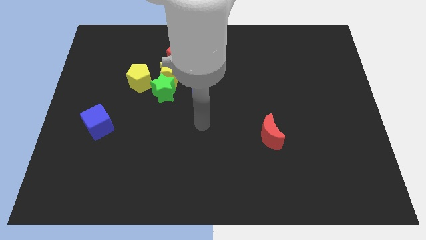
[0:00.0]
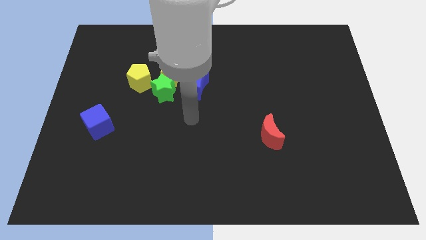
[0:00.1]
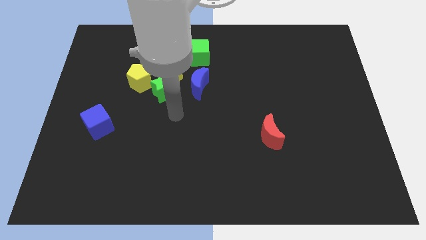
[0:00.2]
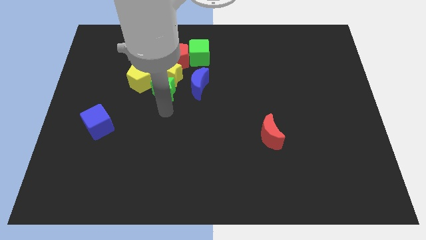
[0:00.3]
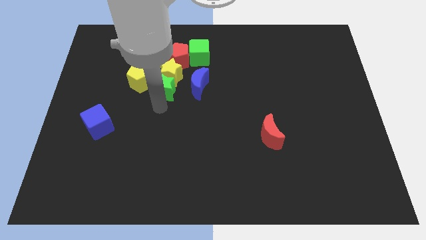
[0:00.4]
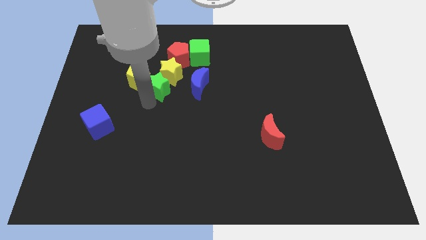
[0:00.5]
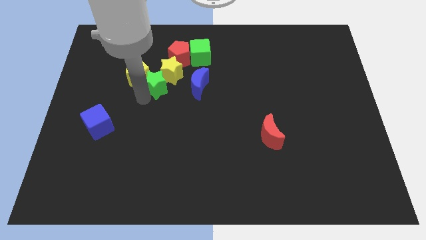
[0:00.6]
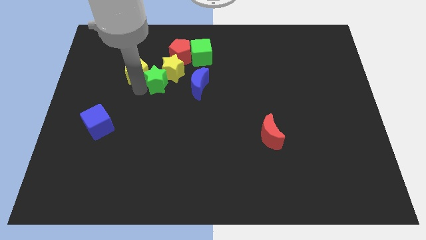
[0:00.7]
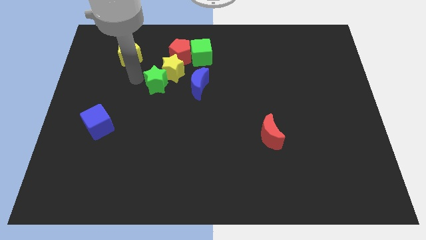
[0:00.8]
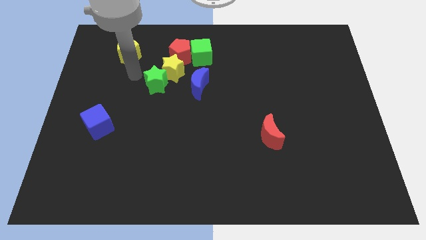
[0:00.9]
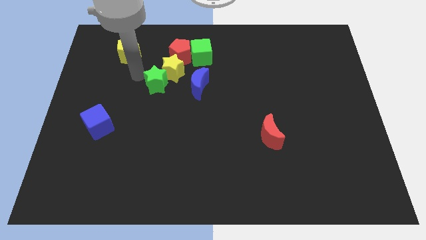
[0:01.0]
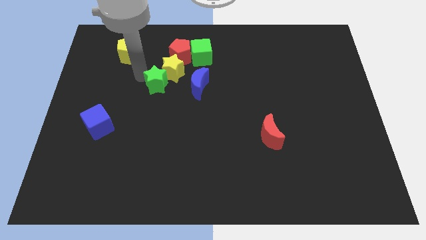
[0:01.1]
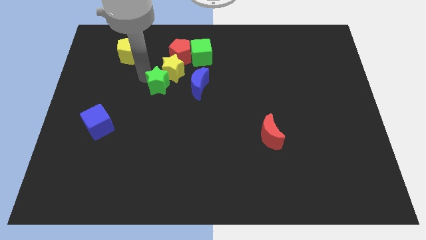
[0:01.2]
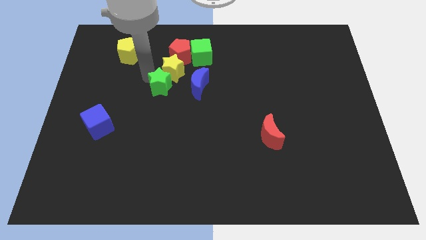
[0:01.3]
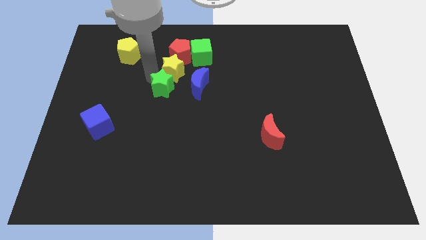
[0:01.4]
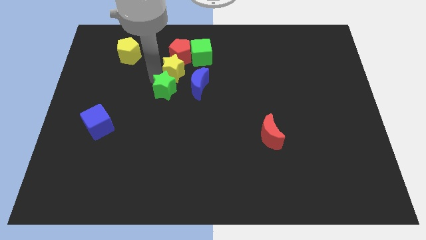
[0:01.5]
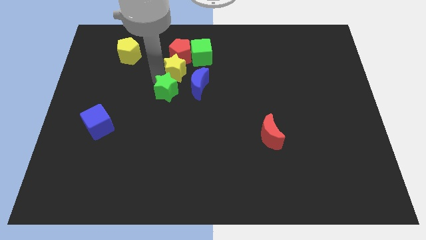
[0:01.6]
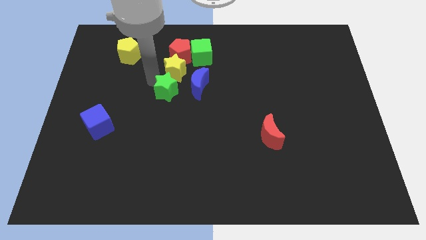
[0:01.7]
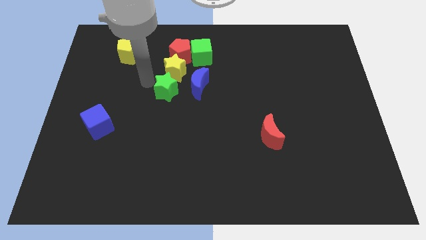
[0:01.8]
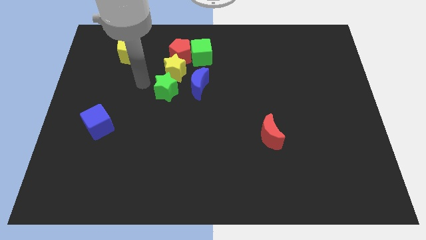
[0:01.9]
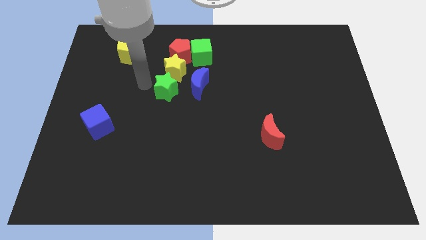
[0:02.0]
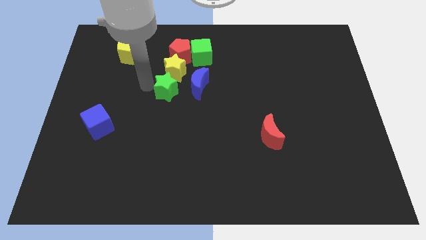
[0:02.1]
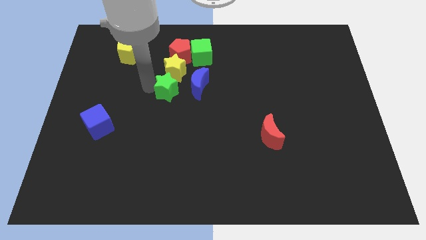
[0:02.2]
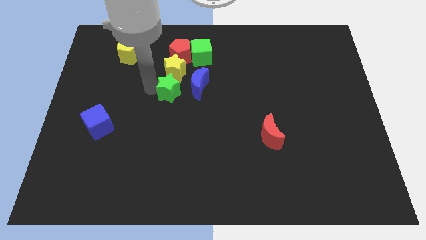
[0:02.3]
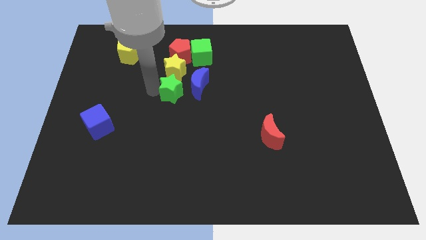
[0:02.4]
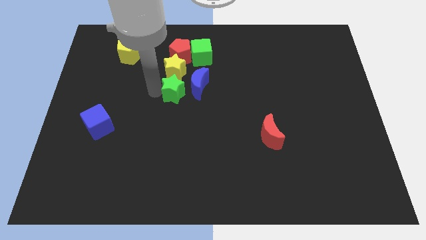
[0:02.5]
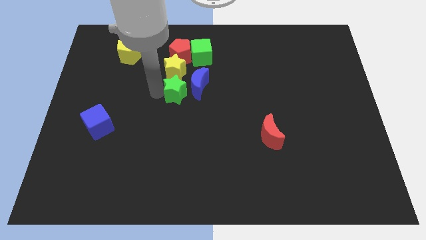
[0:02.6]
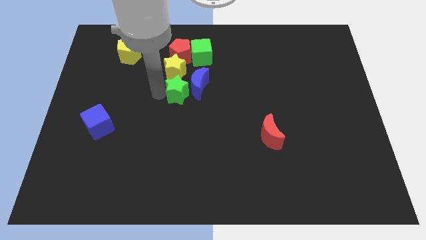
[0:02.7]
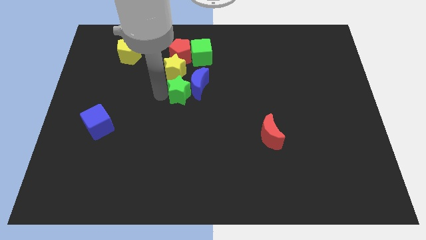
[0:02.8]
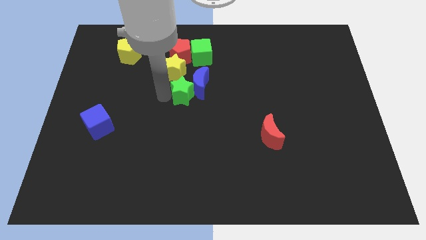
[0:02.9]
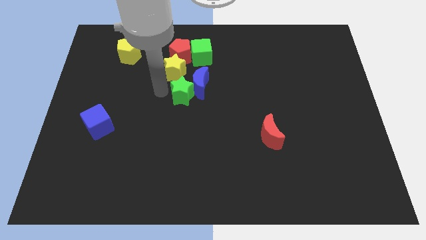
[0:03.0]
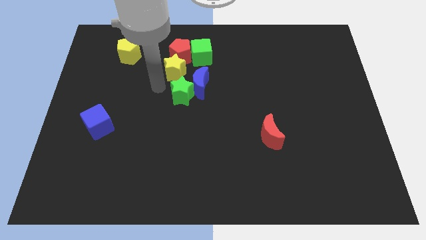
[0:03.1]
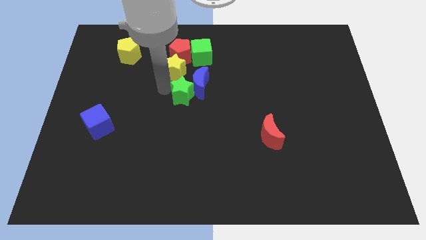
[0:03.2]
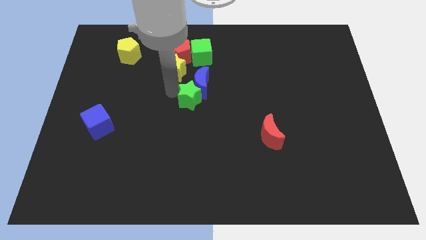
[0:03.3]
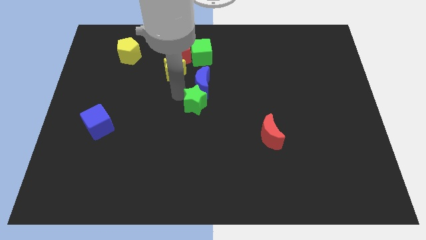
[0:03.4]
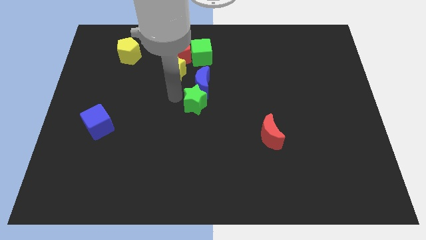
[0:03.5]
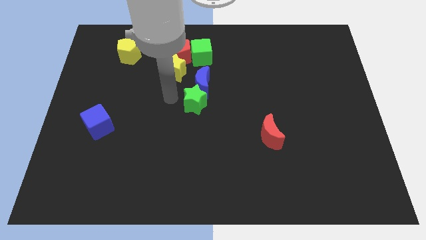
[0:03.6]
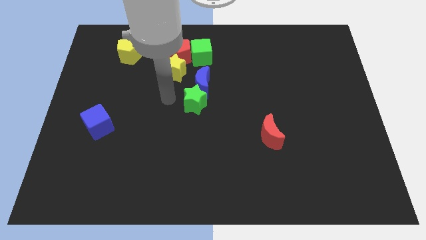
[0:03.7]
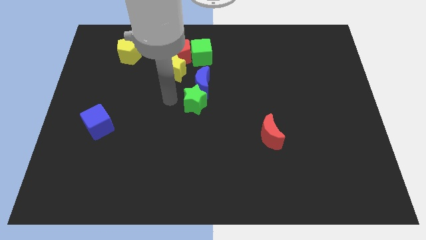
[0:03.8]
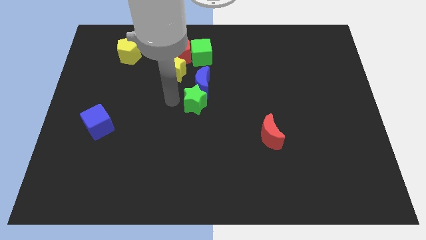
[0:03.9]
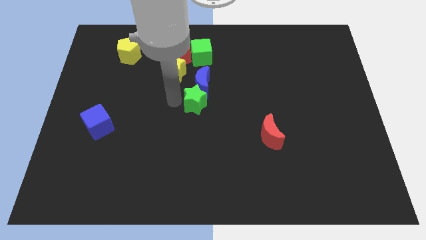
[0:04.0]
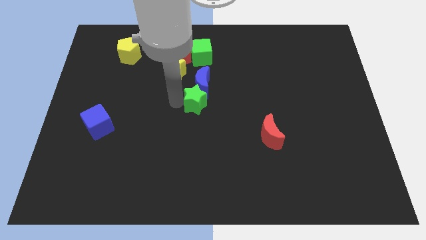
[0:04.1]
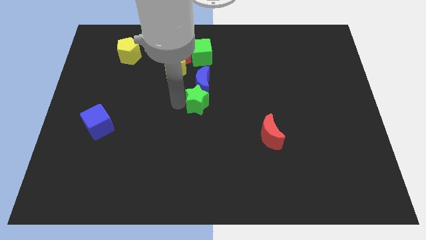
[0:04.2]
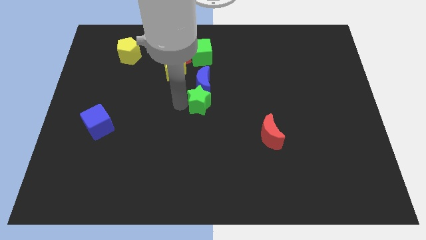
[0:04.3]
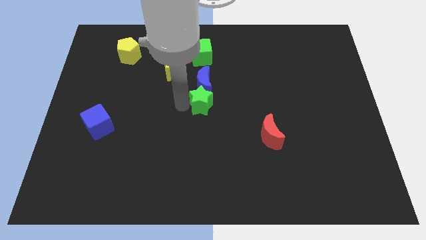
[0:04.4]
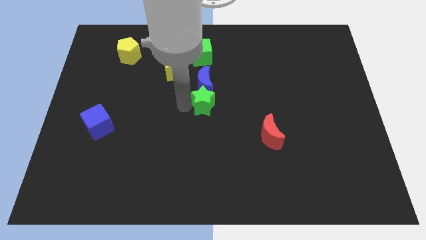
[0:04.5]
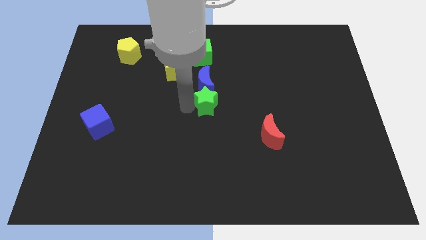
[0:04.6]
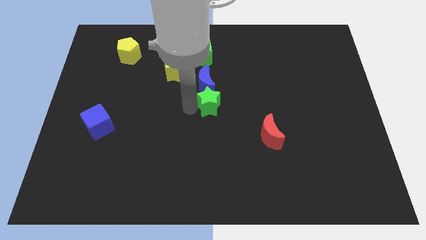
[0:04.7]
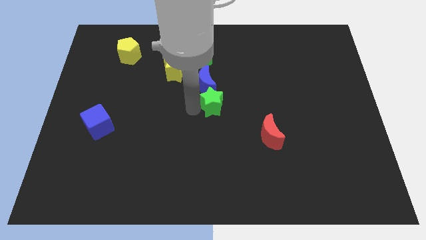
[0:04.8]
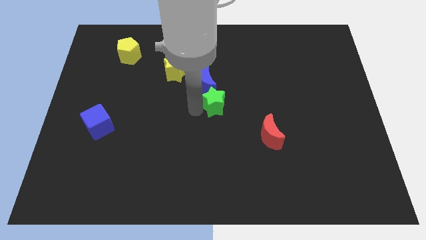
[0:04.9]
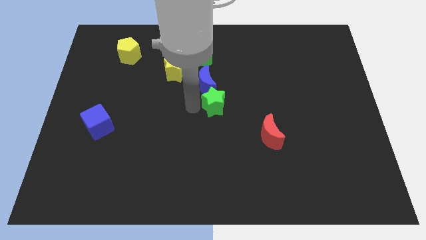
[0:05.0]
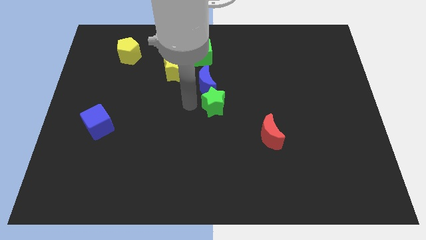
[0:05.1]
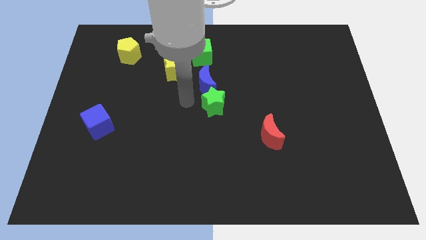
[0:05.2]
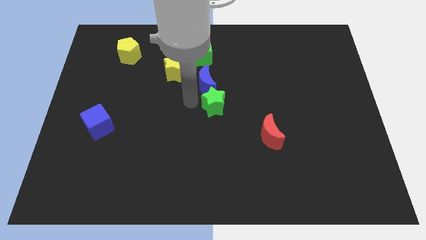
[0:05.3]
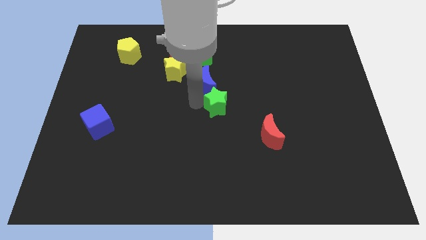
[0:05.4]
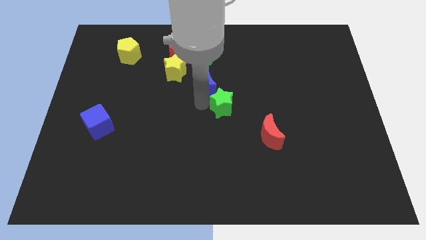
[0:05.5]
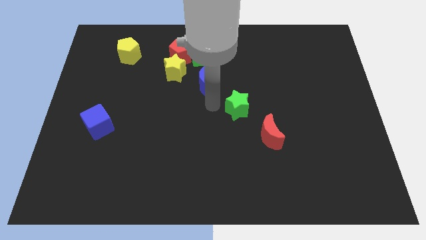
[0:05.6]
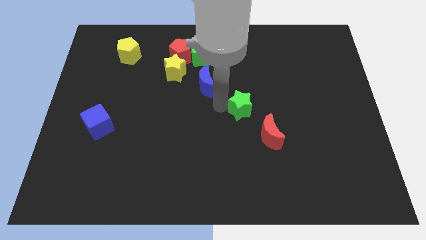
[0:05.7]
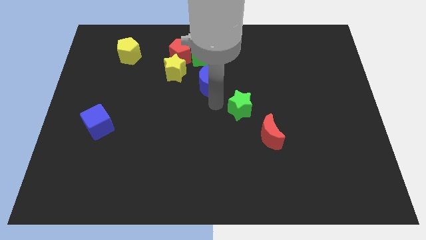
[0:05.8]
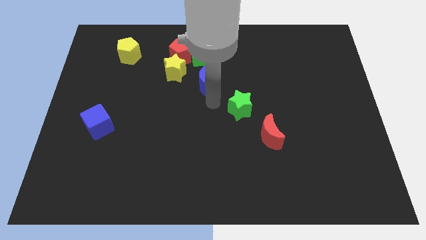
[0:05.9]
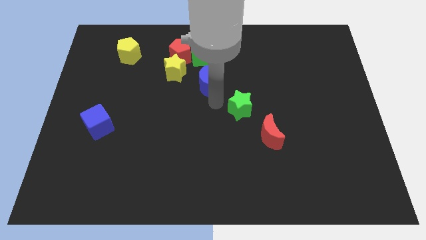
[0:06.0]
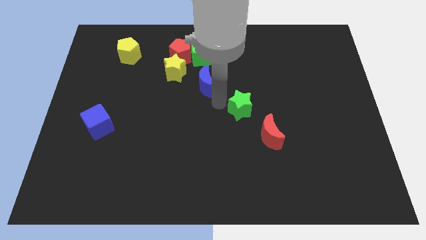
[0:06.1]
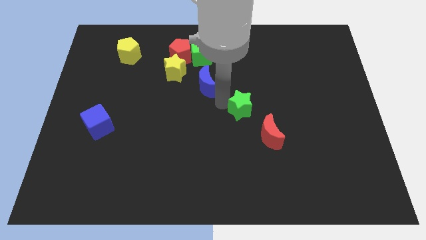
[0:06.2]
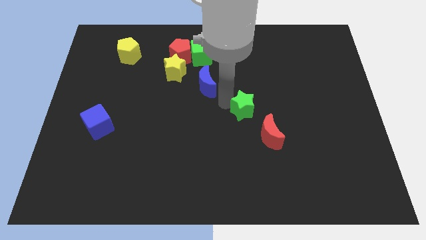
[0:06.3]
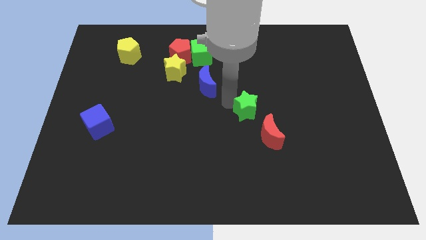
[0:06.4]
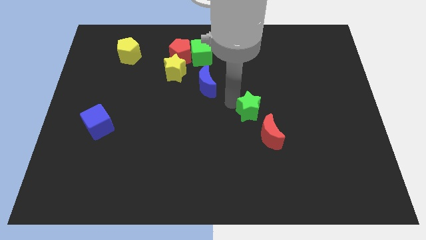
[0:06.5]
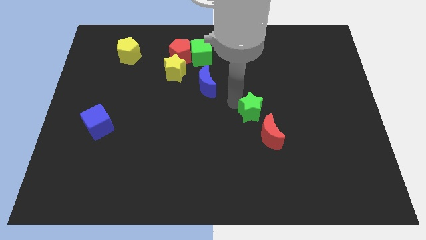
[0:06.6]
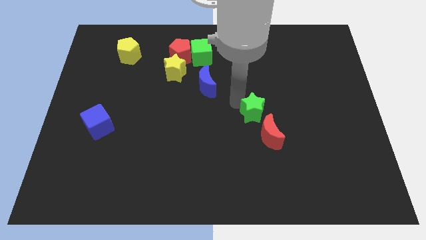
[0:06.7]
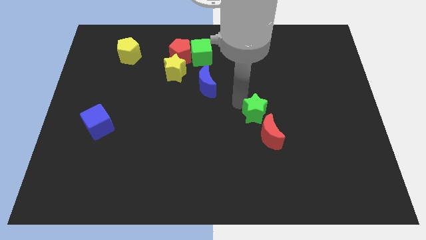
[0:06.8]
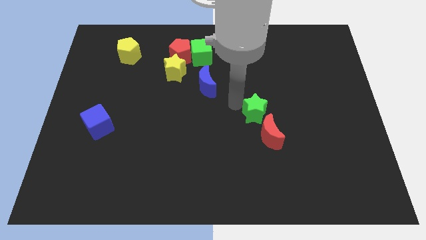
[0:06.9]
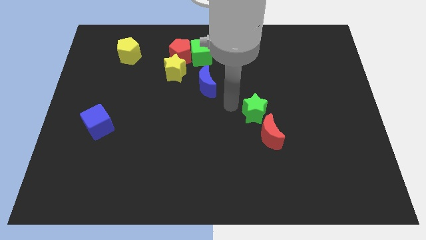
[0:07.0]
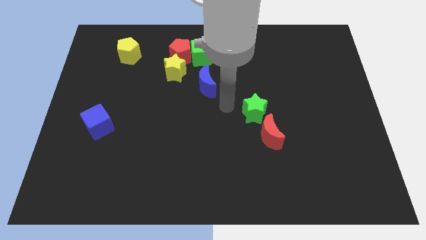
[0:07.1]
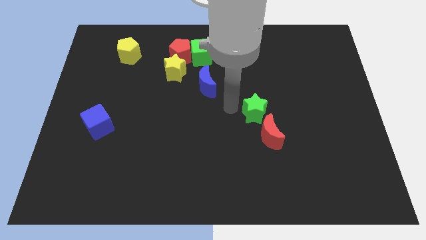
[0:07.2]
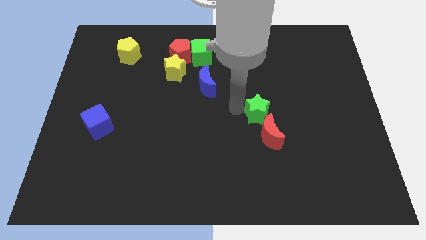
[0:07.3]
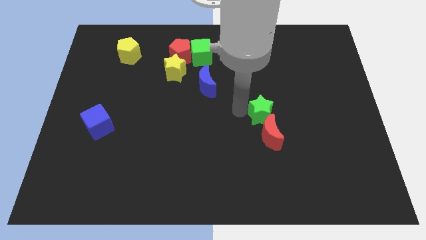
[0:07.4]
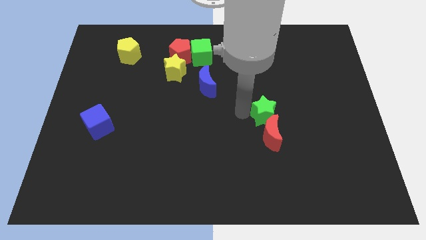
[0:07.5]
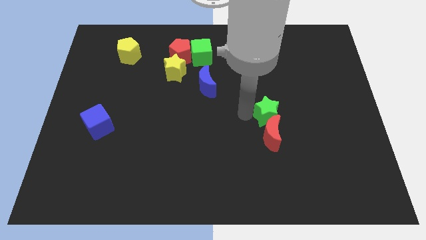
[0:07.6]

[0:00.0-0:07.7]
push the green star to the top right side of the red moon
